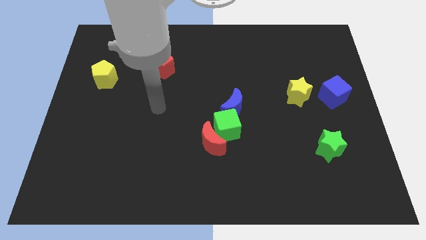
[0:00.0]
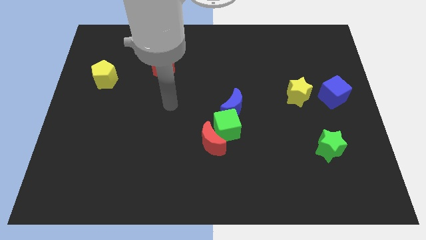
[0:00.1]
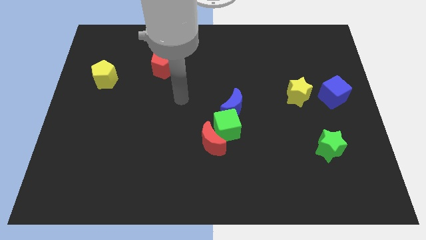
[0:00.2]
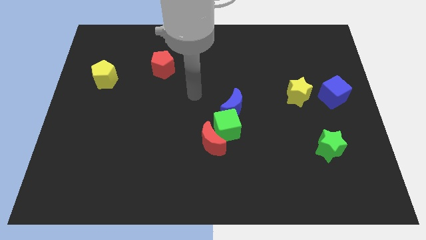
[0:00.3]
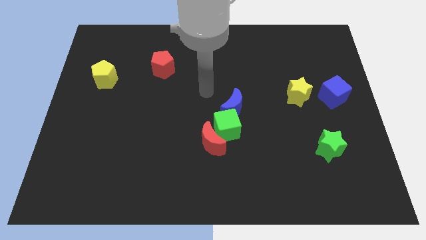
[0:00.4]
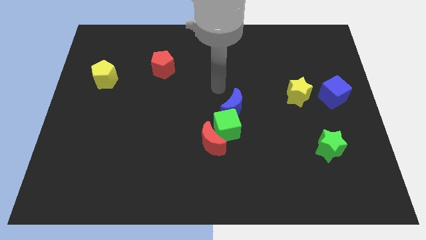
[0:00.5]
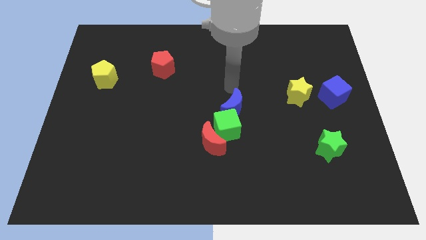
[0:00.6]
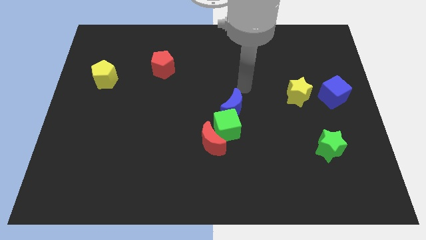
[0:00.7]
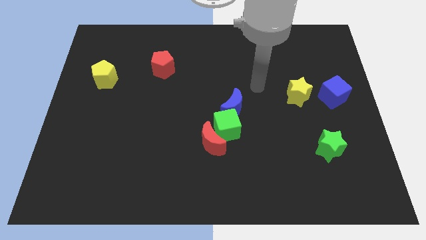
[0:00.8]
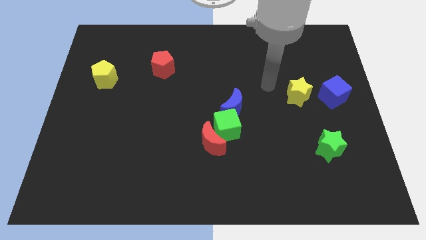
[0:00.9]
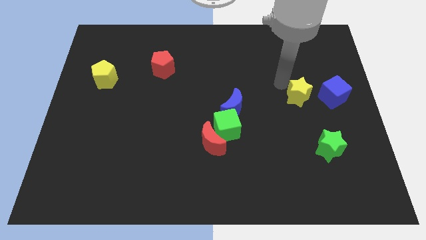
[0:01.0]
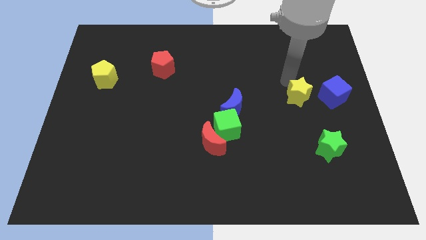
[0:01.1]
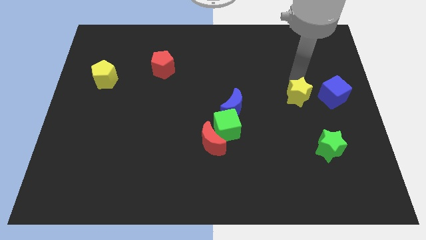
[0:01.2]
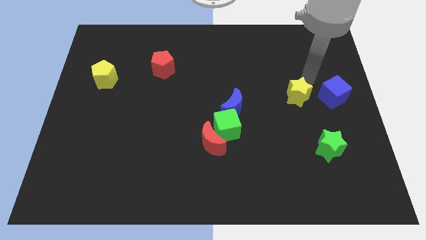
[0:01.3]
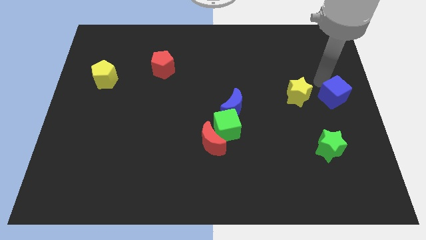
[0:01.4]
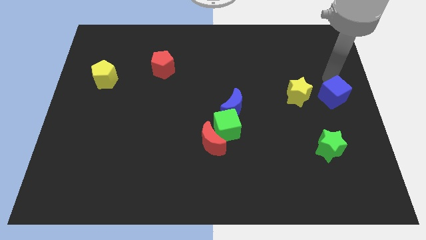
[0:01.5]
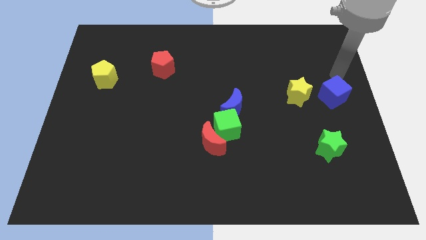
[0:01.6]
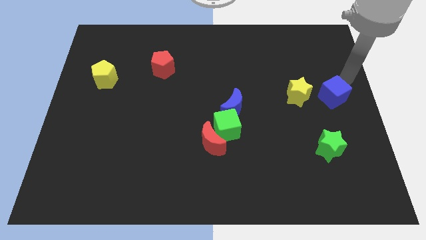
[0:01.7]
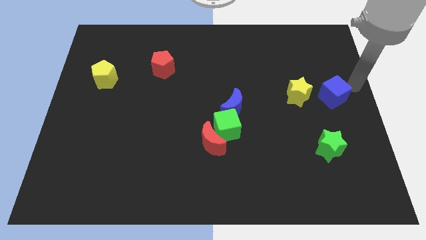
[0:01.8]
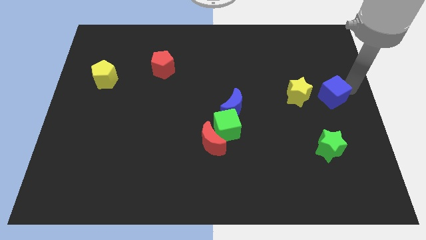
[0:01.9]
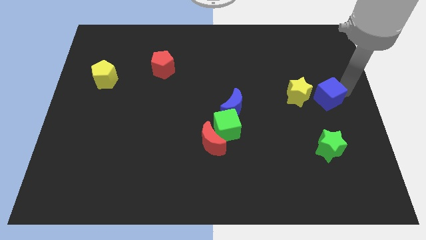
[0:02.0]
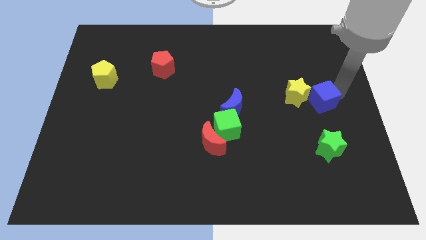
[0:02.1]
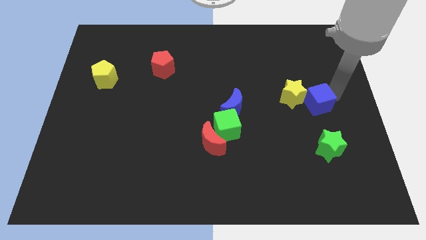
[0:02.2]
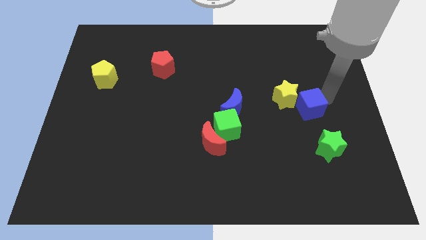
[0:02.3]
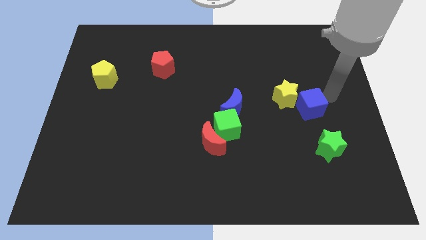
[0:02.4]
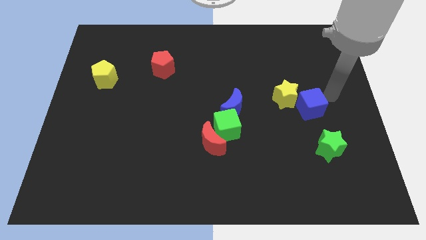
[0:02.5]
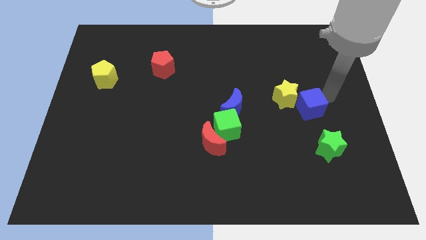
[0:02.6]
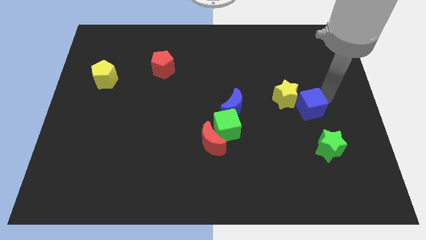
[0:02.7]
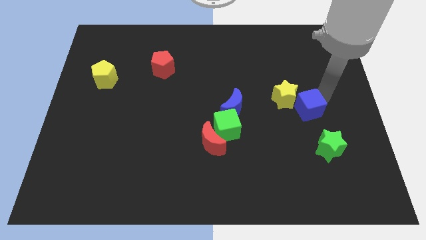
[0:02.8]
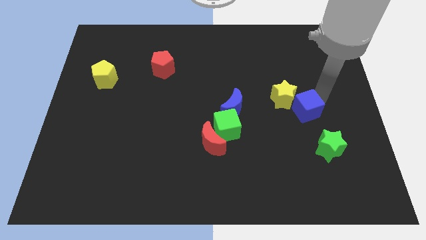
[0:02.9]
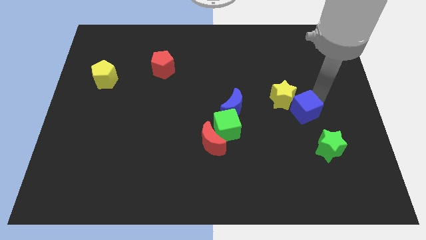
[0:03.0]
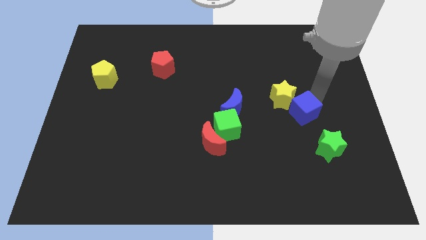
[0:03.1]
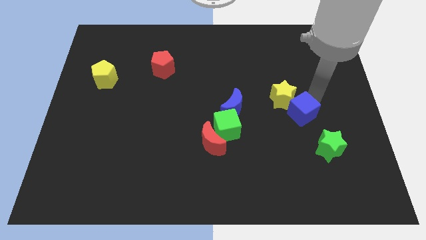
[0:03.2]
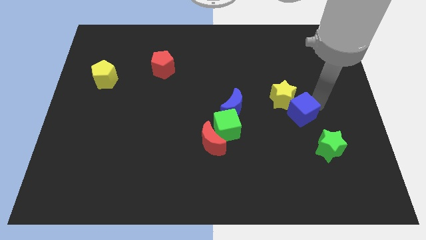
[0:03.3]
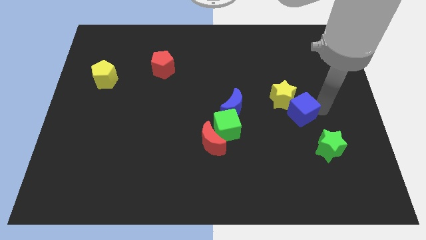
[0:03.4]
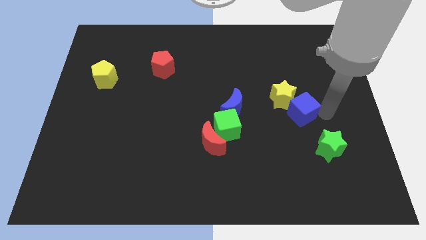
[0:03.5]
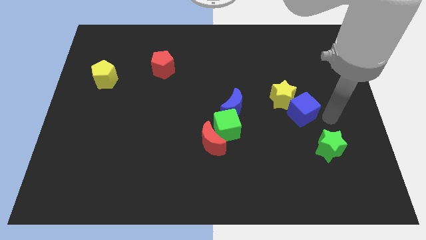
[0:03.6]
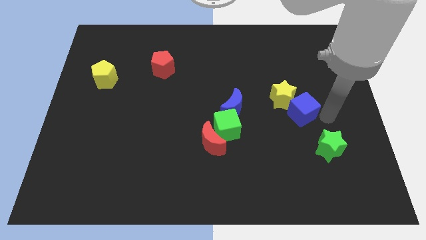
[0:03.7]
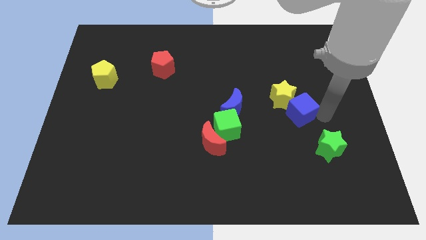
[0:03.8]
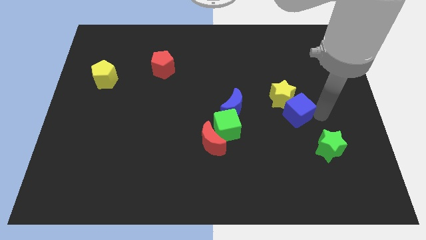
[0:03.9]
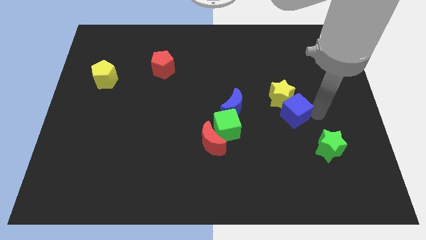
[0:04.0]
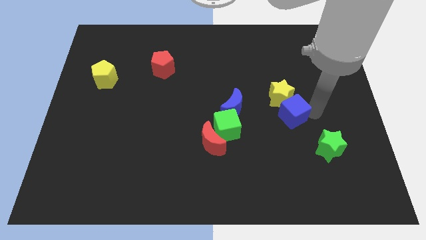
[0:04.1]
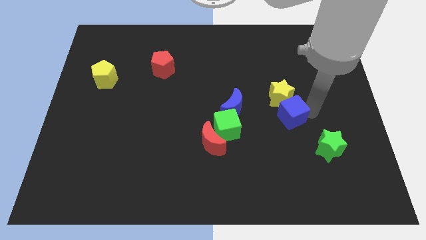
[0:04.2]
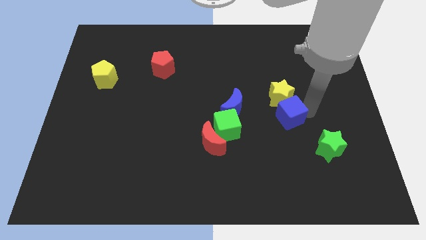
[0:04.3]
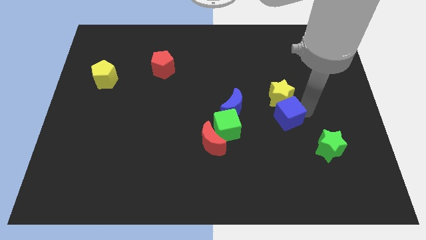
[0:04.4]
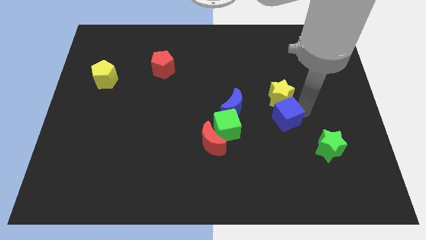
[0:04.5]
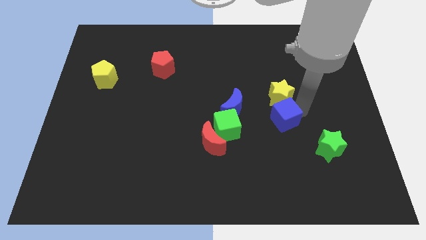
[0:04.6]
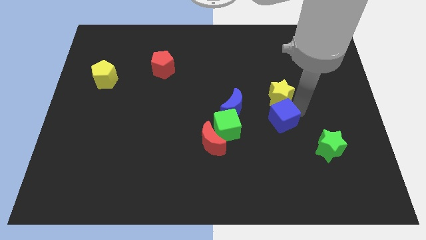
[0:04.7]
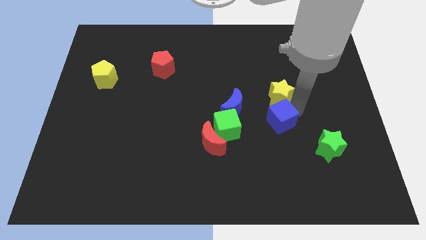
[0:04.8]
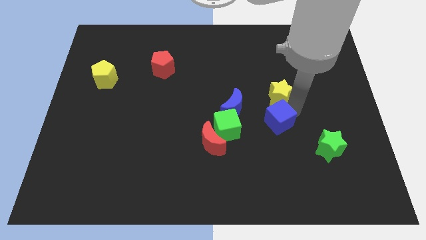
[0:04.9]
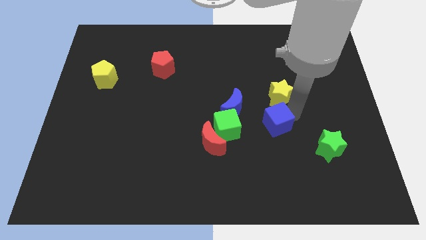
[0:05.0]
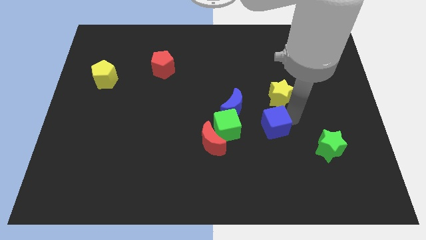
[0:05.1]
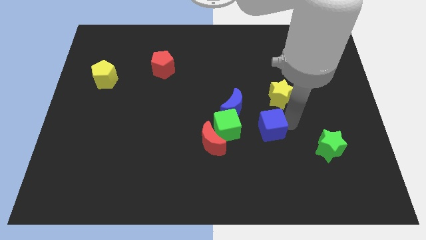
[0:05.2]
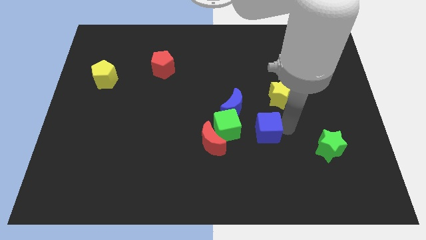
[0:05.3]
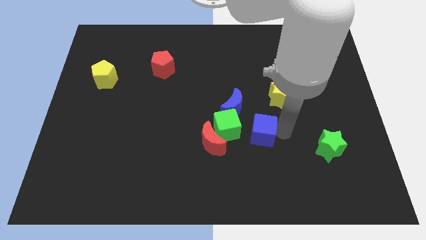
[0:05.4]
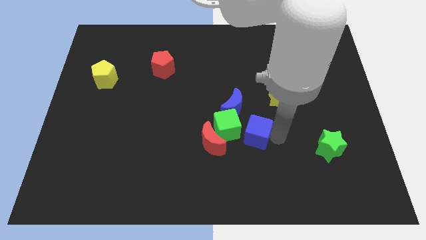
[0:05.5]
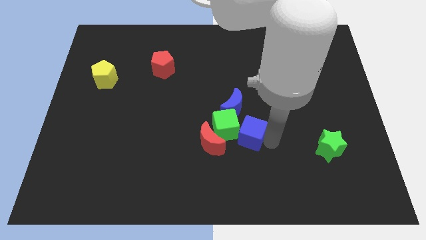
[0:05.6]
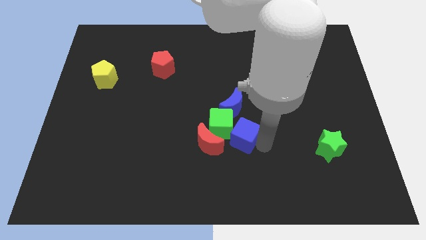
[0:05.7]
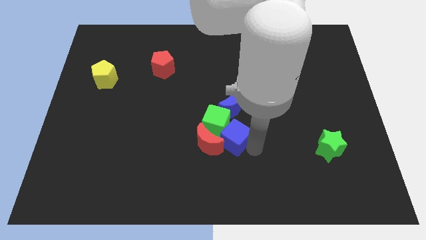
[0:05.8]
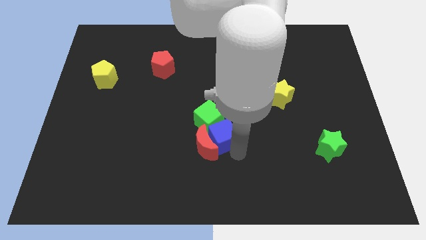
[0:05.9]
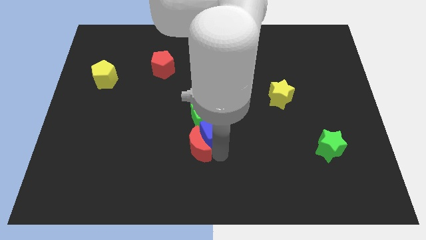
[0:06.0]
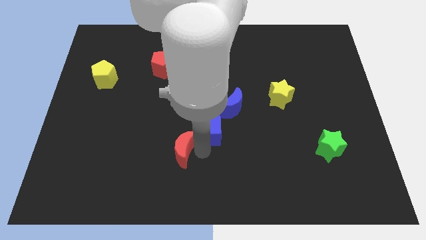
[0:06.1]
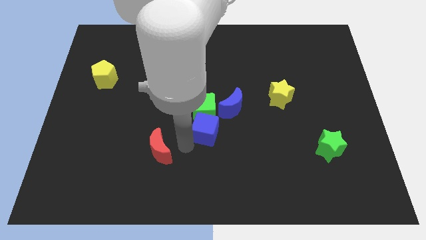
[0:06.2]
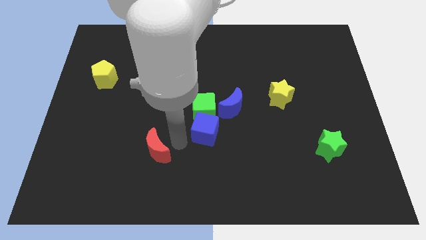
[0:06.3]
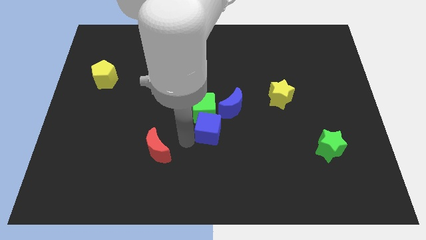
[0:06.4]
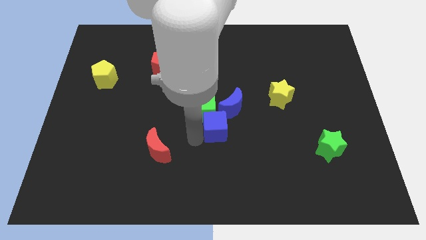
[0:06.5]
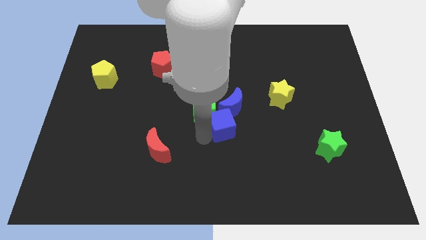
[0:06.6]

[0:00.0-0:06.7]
slide the blue cube close to the blue moon
